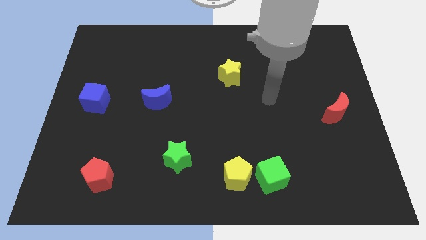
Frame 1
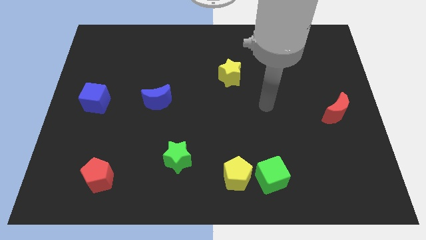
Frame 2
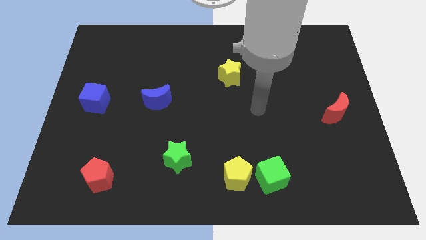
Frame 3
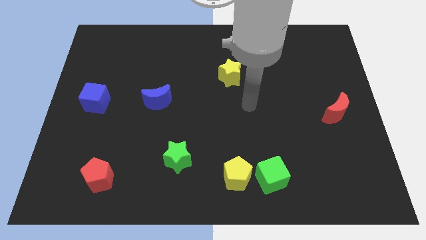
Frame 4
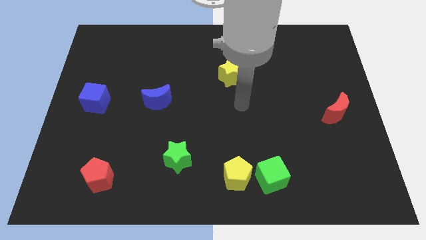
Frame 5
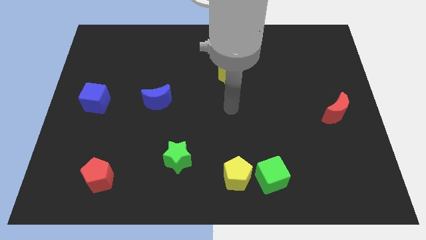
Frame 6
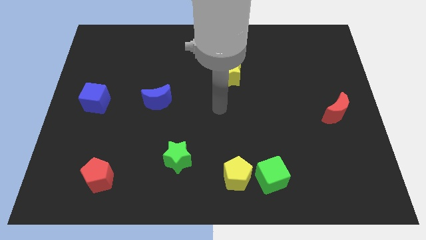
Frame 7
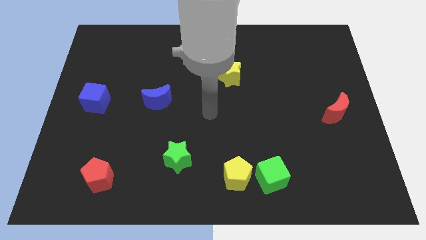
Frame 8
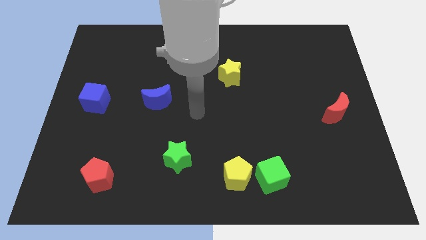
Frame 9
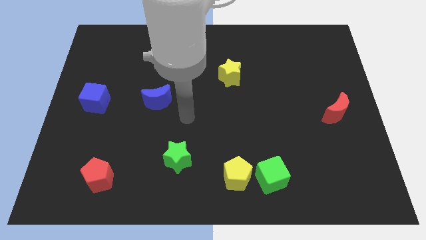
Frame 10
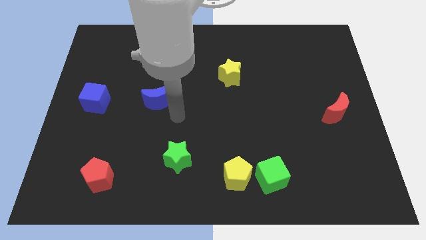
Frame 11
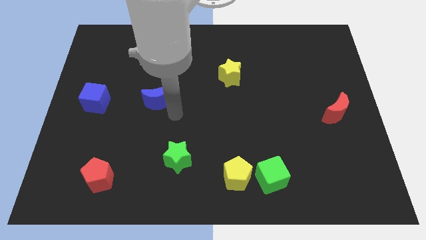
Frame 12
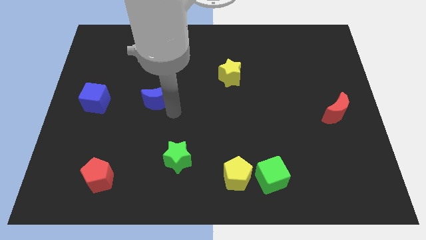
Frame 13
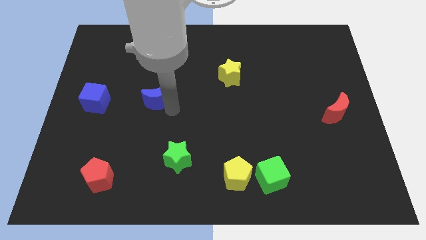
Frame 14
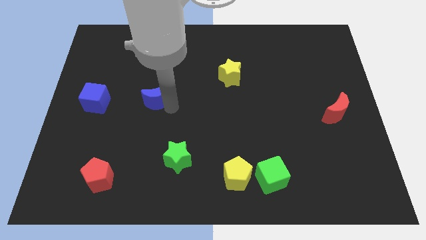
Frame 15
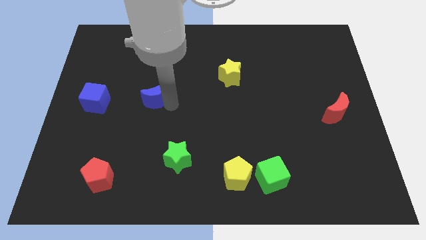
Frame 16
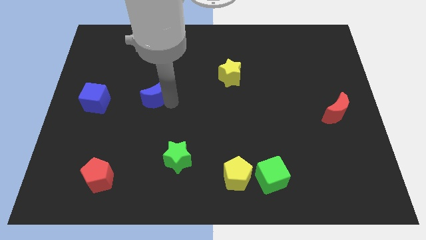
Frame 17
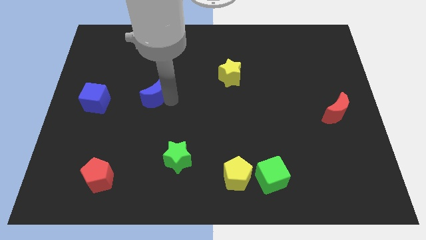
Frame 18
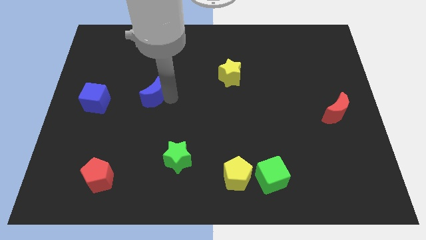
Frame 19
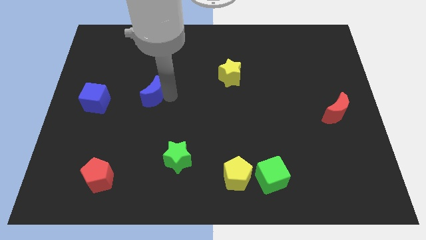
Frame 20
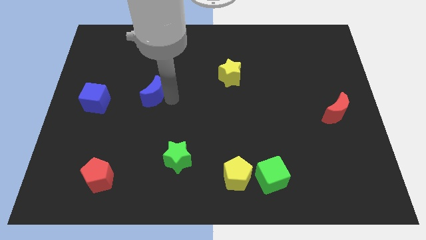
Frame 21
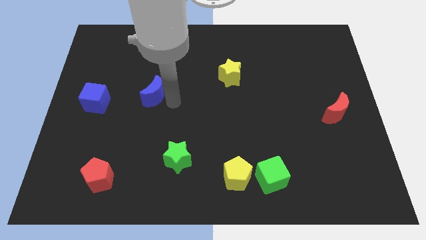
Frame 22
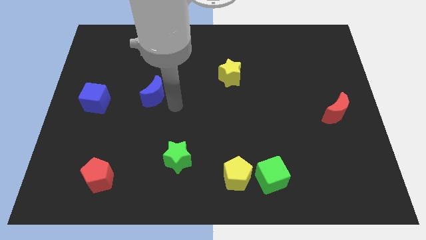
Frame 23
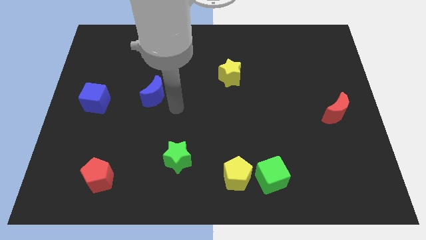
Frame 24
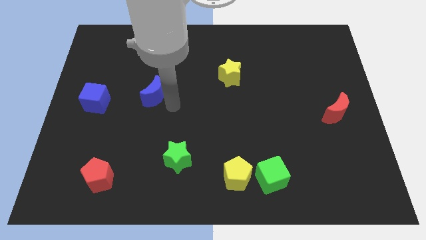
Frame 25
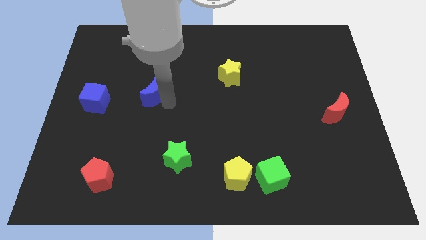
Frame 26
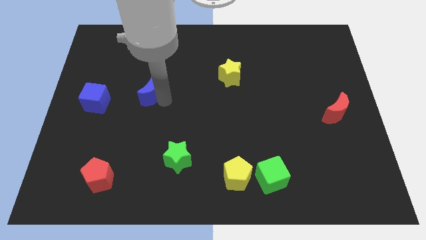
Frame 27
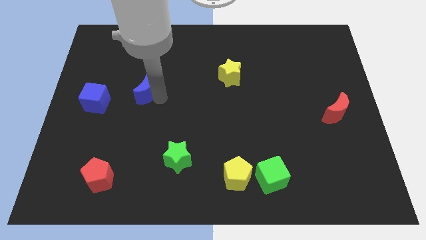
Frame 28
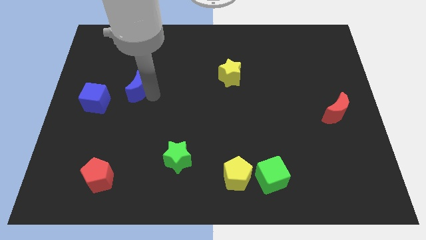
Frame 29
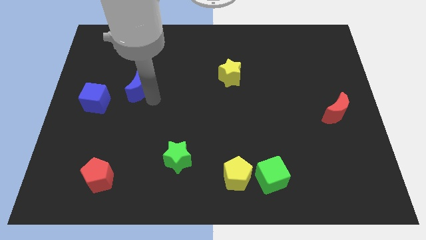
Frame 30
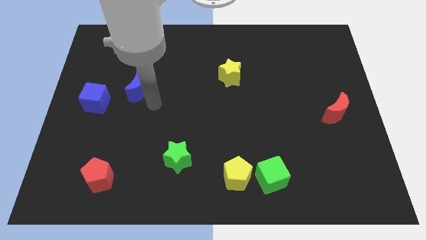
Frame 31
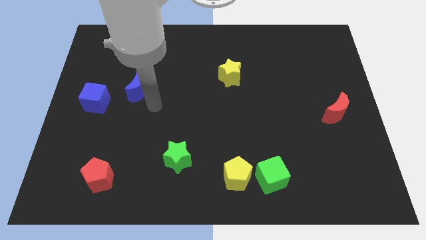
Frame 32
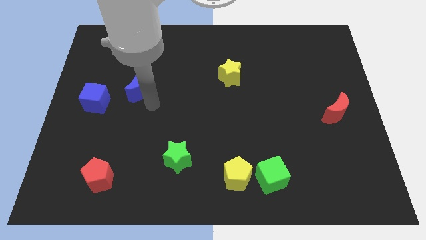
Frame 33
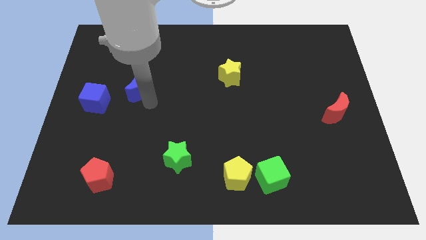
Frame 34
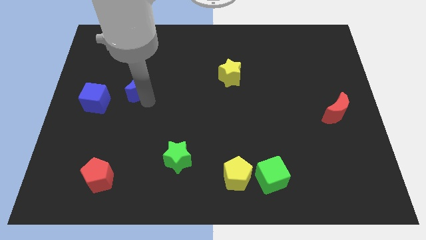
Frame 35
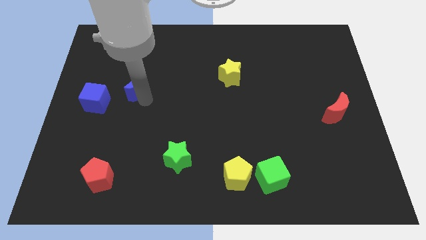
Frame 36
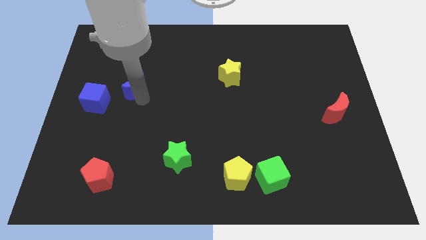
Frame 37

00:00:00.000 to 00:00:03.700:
slightly move the blue moon up and left

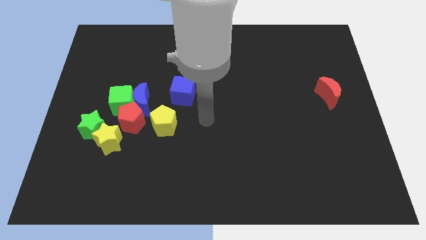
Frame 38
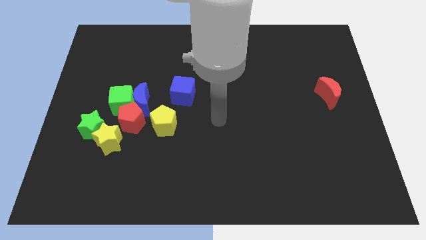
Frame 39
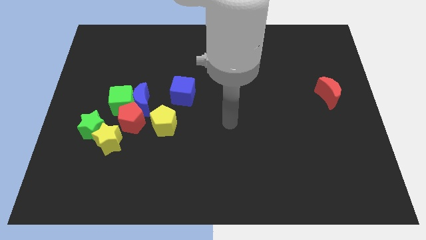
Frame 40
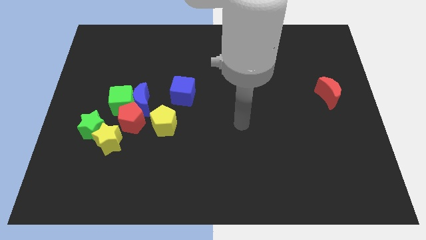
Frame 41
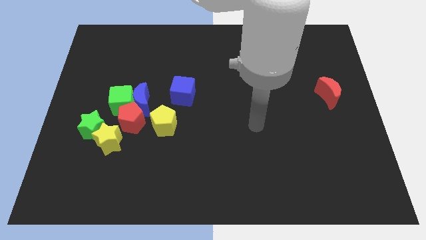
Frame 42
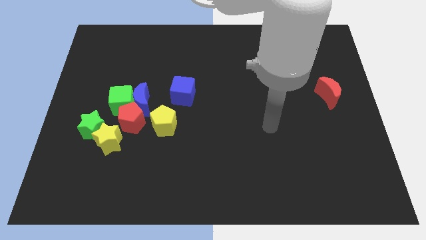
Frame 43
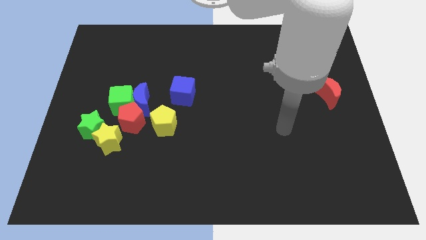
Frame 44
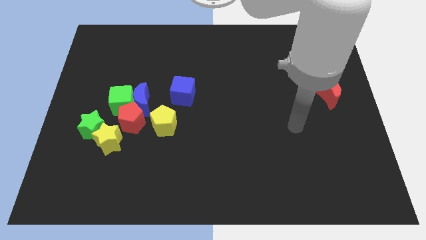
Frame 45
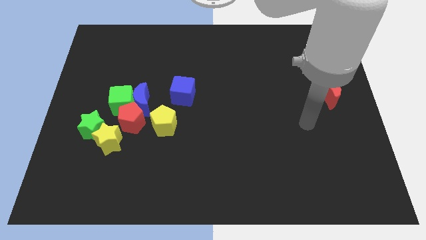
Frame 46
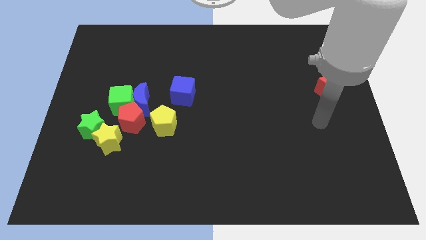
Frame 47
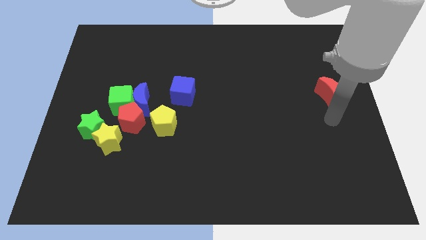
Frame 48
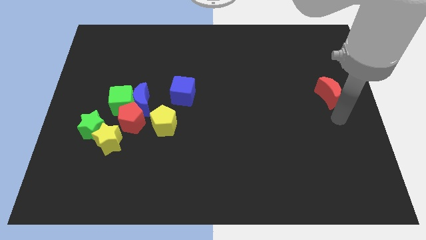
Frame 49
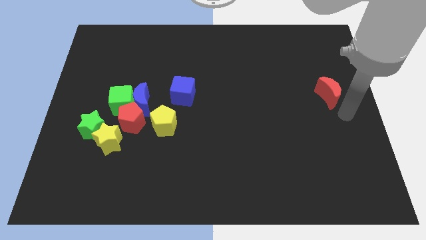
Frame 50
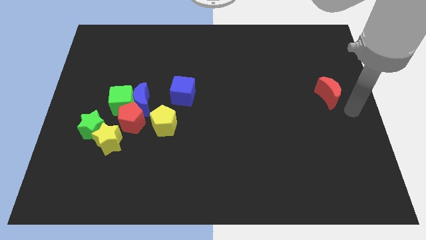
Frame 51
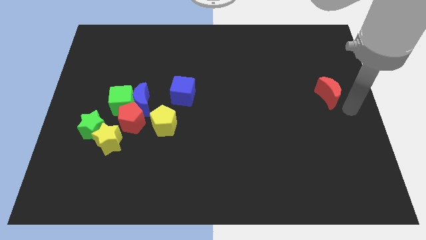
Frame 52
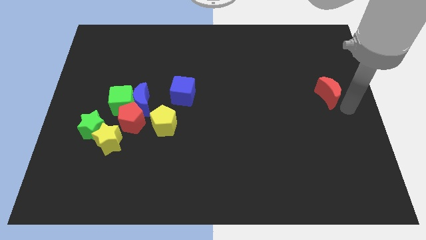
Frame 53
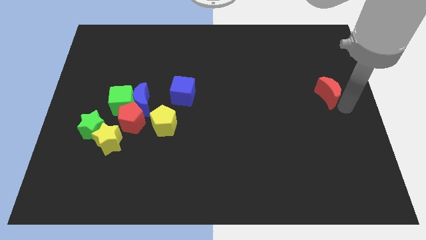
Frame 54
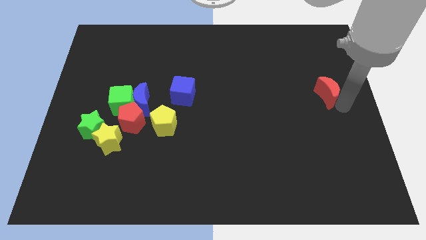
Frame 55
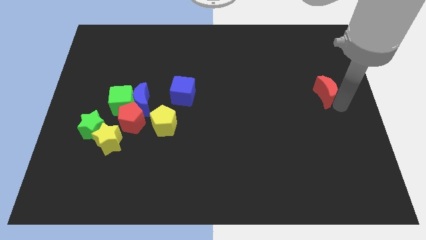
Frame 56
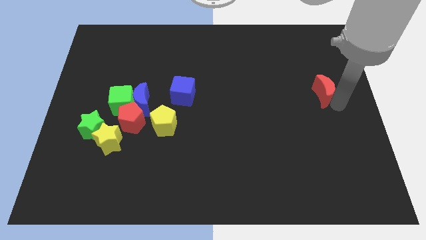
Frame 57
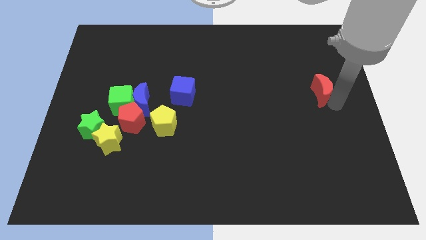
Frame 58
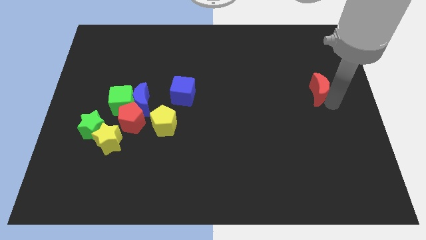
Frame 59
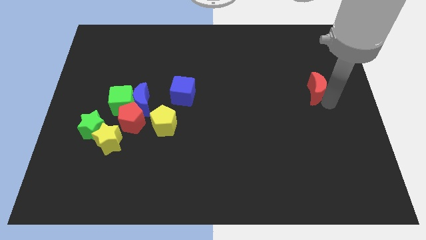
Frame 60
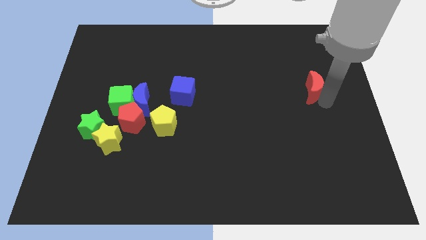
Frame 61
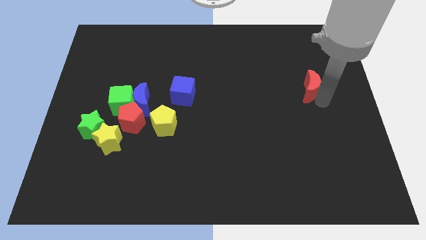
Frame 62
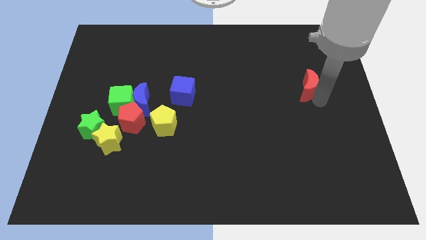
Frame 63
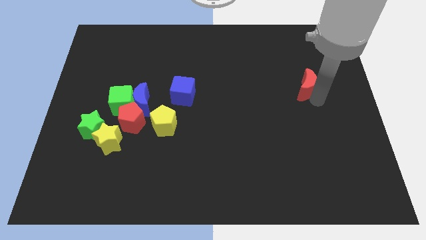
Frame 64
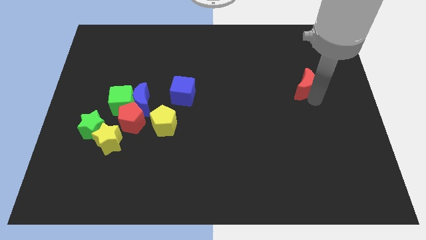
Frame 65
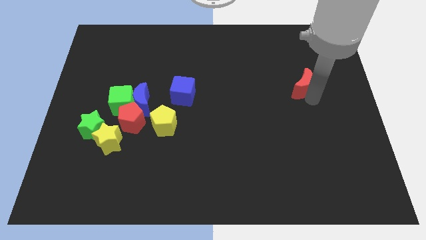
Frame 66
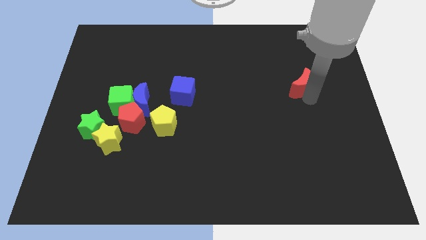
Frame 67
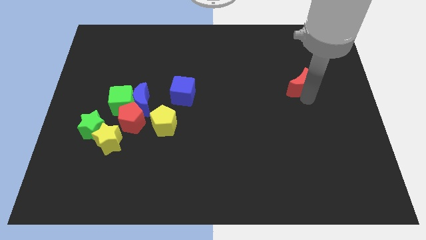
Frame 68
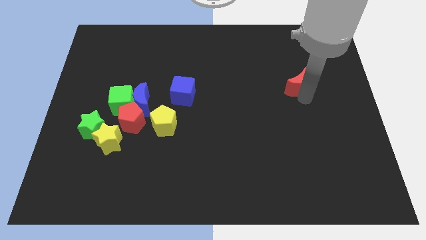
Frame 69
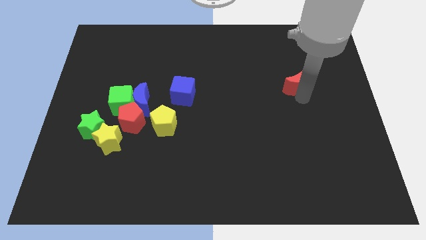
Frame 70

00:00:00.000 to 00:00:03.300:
slightly slide the red moon diagonally upwards and left

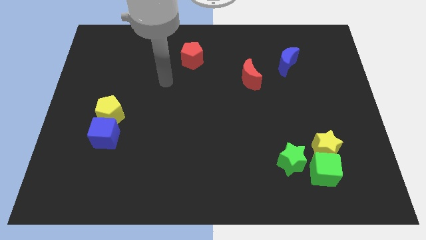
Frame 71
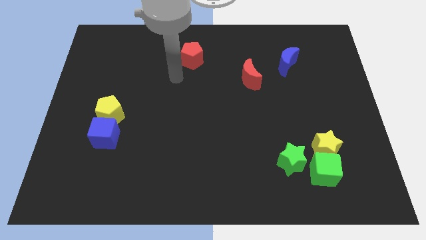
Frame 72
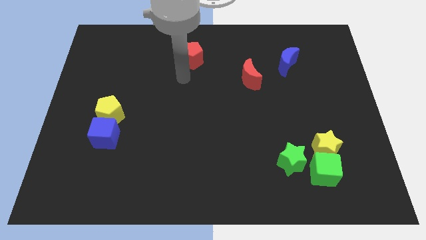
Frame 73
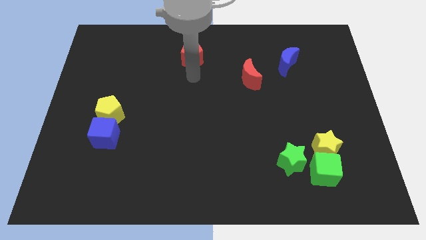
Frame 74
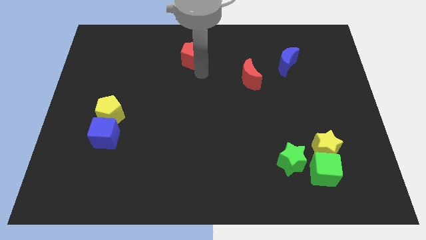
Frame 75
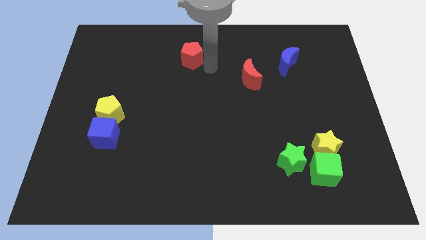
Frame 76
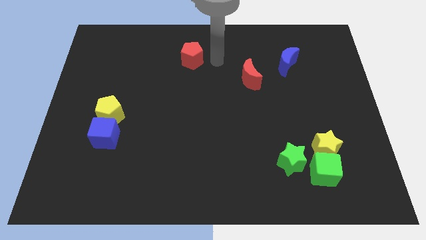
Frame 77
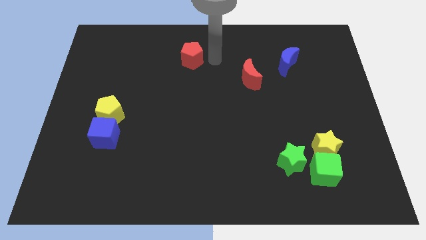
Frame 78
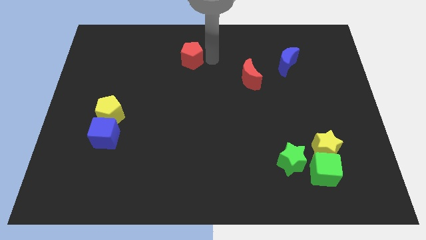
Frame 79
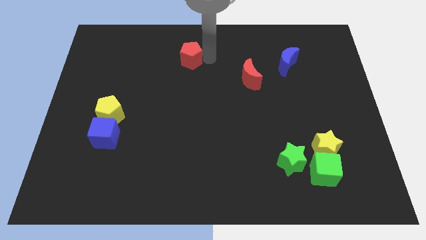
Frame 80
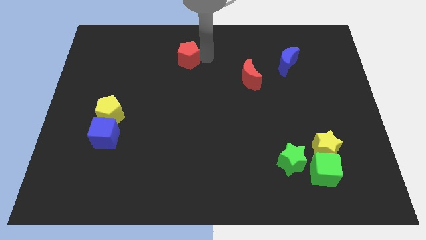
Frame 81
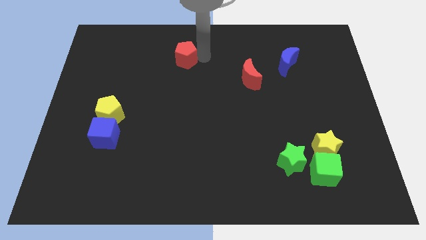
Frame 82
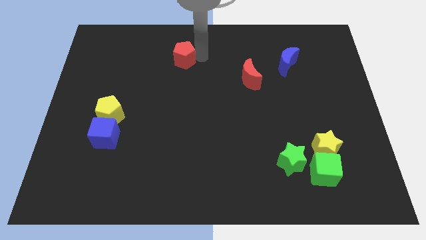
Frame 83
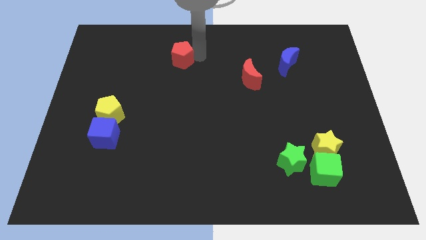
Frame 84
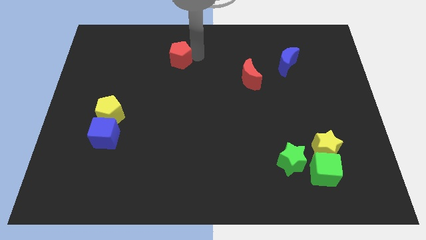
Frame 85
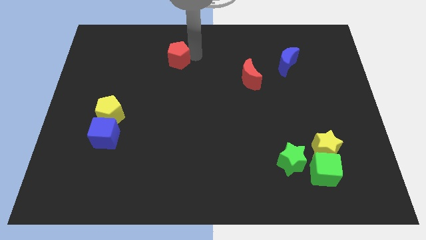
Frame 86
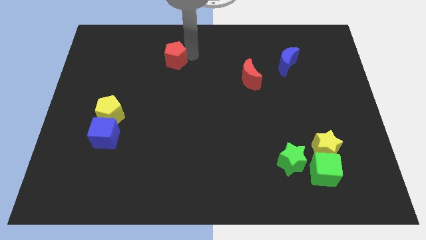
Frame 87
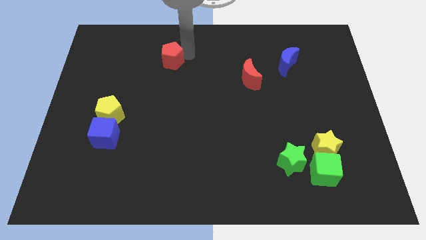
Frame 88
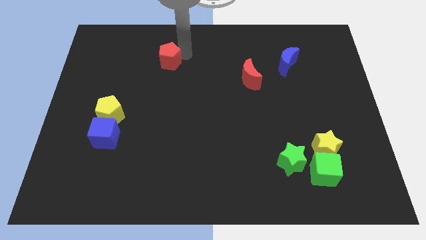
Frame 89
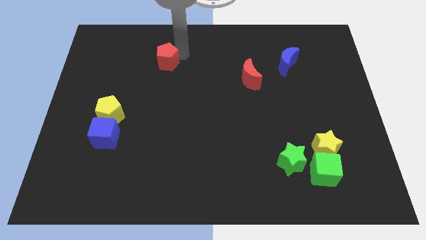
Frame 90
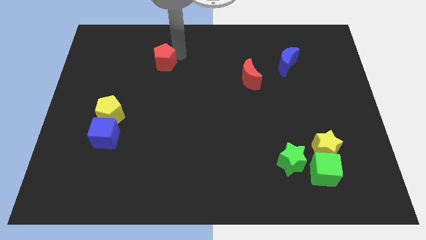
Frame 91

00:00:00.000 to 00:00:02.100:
push the red pentagon somewhat left
